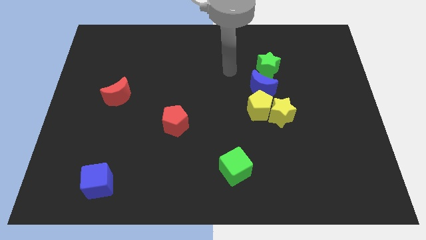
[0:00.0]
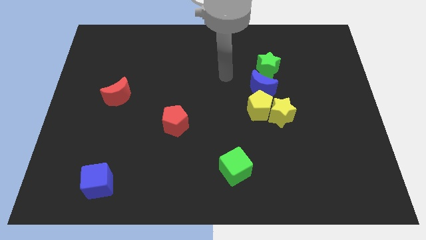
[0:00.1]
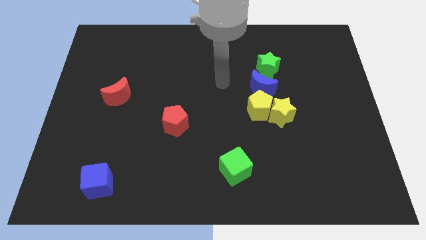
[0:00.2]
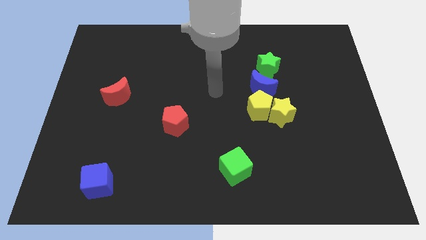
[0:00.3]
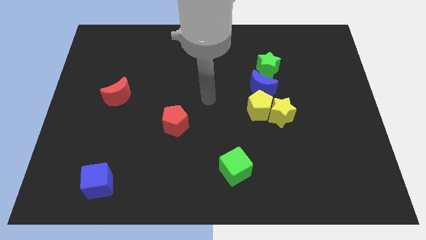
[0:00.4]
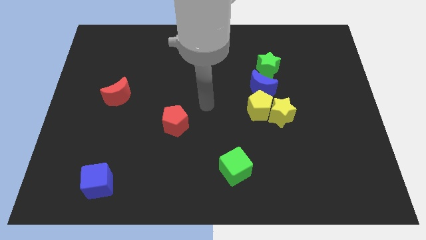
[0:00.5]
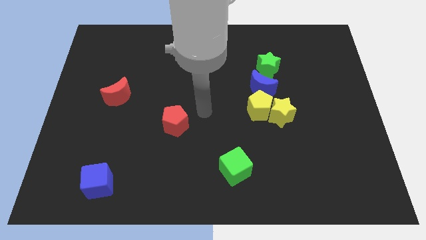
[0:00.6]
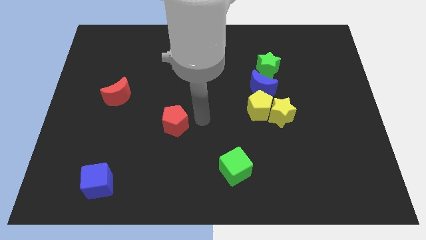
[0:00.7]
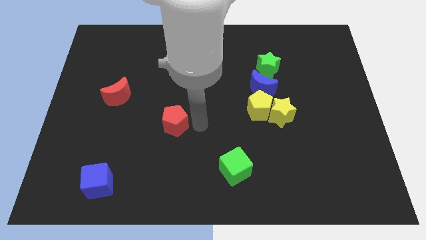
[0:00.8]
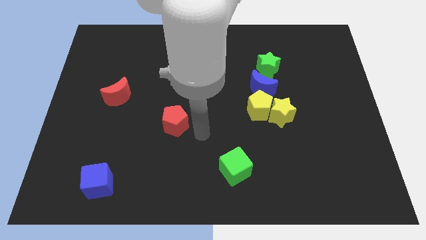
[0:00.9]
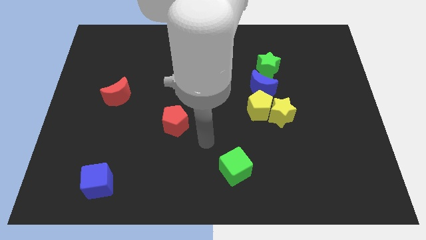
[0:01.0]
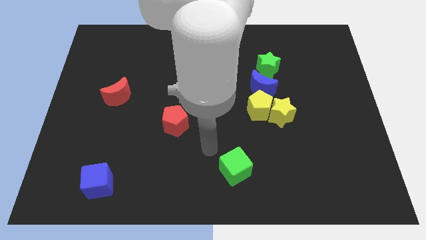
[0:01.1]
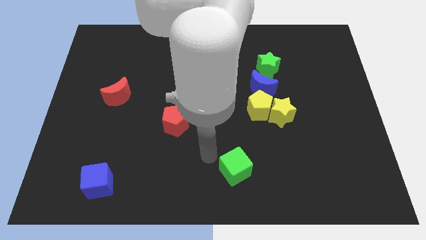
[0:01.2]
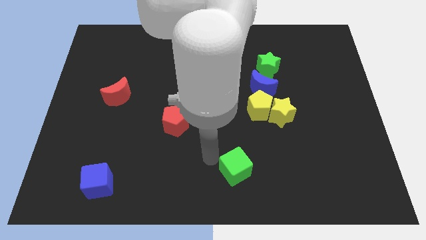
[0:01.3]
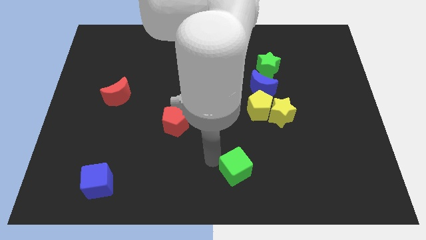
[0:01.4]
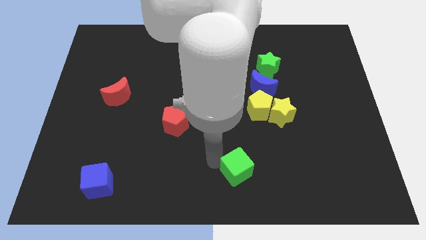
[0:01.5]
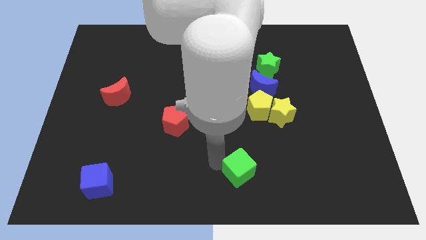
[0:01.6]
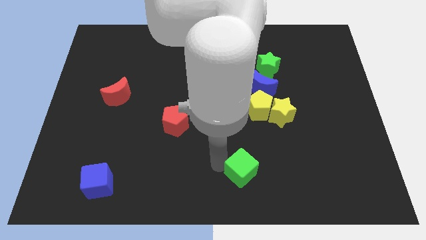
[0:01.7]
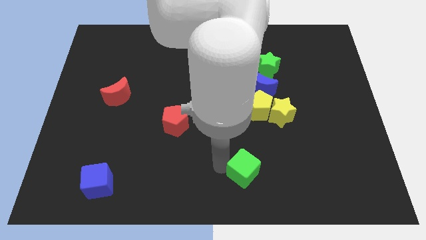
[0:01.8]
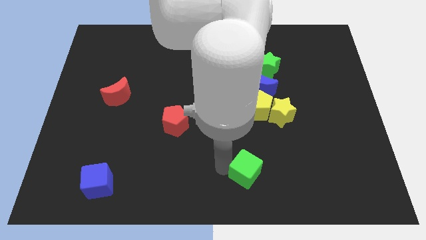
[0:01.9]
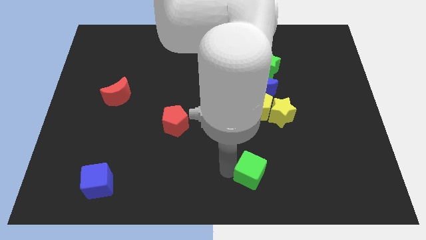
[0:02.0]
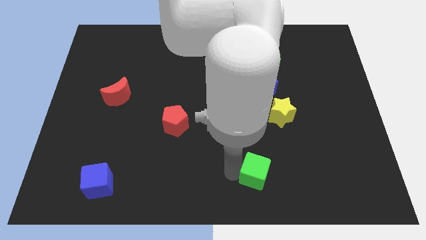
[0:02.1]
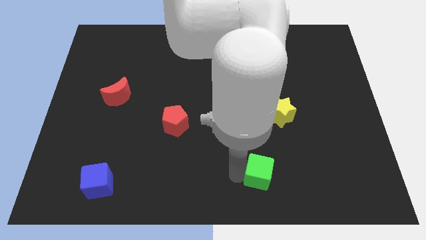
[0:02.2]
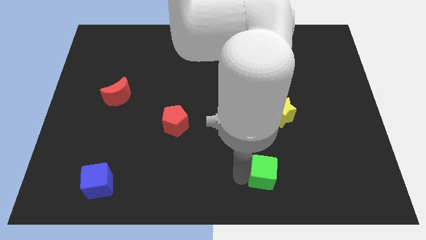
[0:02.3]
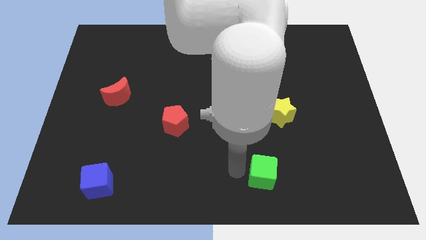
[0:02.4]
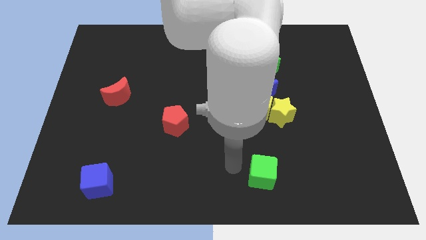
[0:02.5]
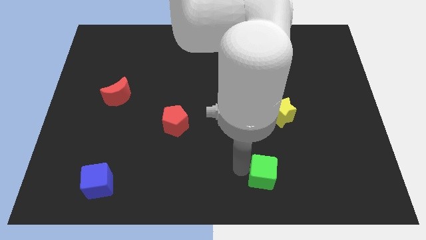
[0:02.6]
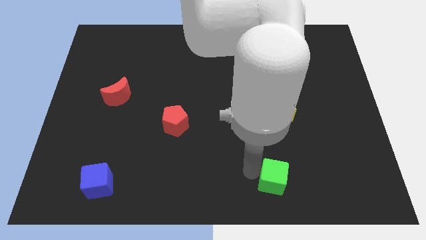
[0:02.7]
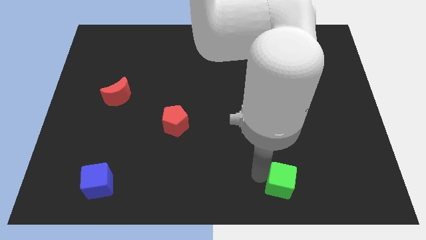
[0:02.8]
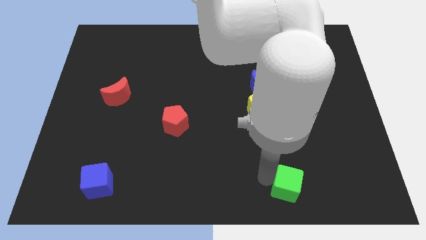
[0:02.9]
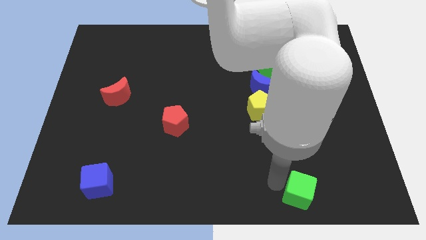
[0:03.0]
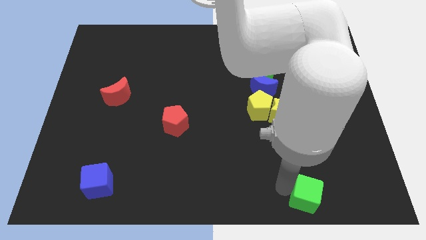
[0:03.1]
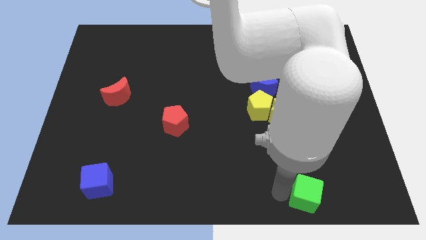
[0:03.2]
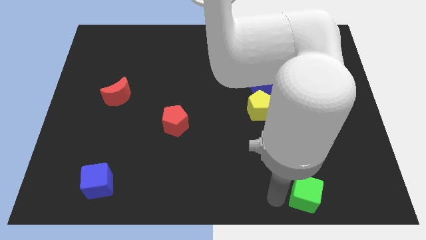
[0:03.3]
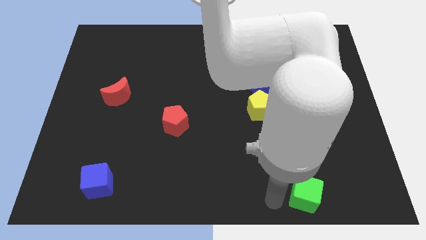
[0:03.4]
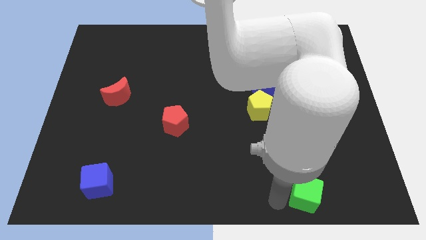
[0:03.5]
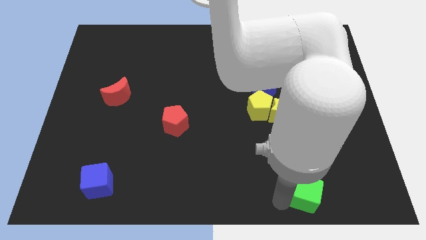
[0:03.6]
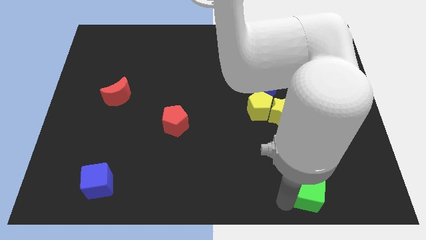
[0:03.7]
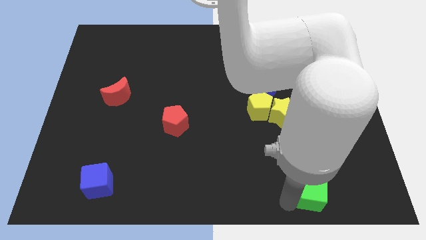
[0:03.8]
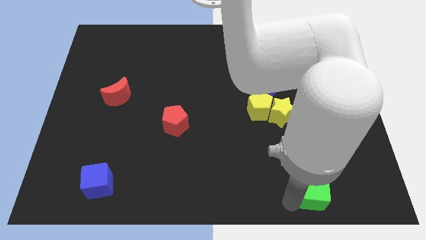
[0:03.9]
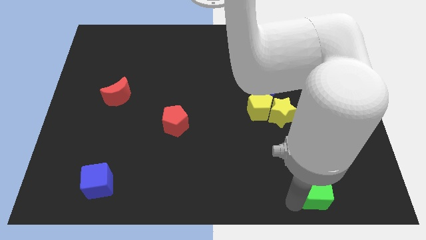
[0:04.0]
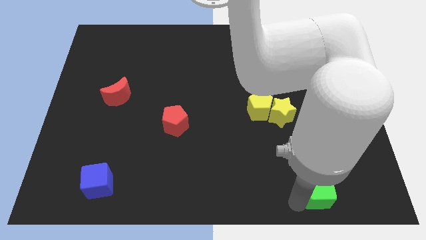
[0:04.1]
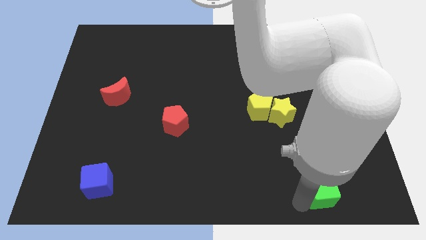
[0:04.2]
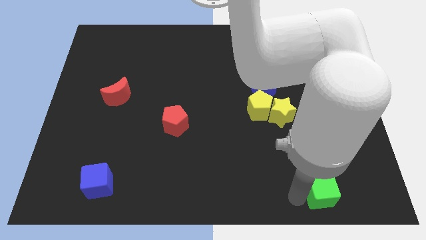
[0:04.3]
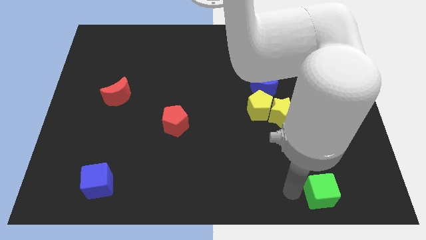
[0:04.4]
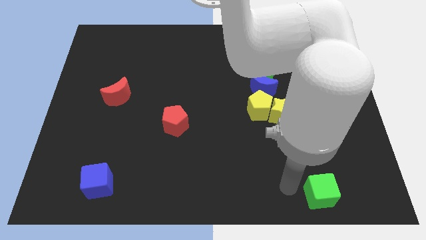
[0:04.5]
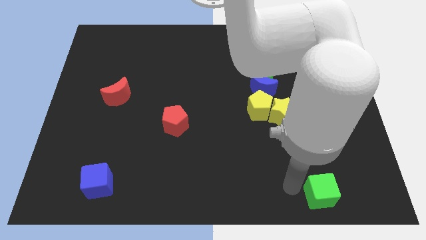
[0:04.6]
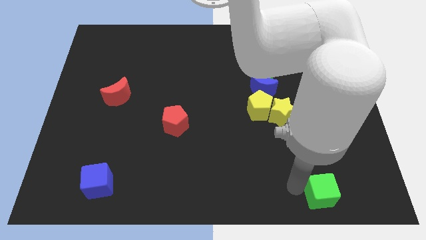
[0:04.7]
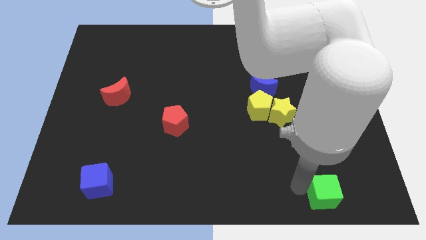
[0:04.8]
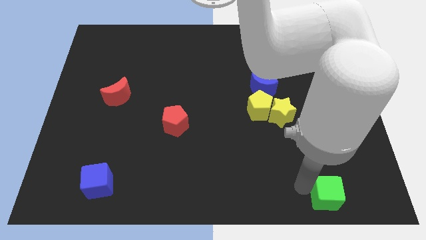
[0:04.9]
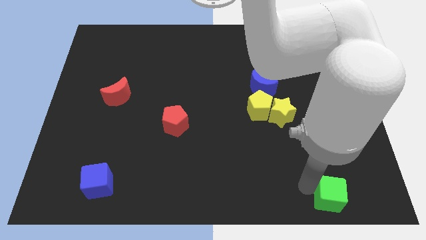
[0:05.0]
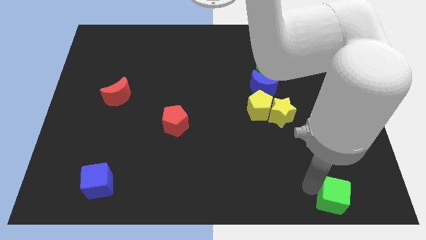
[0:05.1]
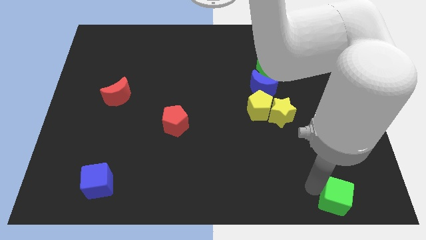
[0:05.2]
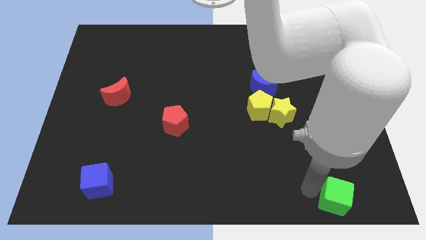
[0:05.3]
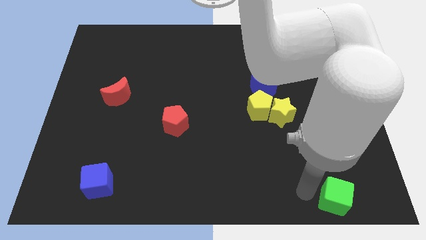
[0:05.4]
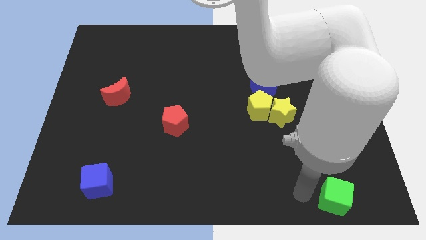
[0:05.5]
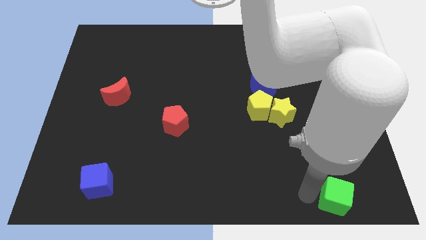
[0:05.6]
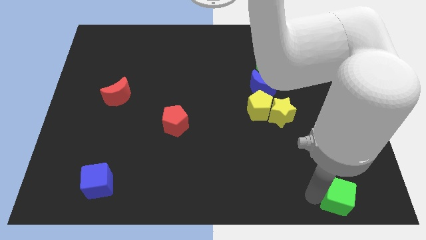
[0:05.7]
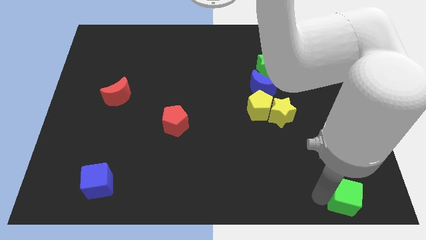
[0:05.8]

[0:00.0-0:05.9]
move the green cube to the bottom right

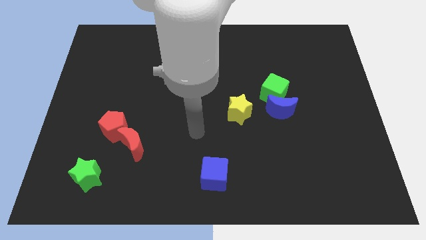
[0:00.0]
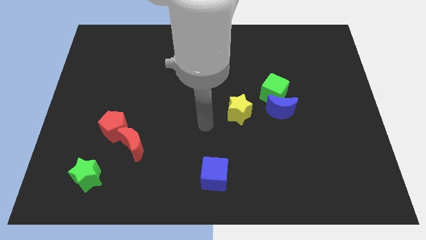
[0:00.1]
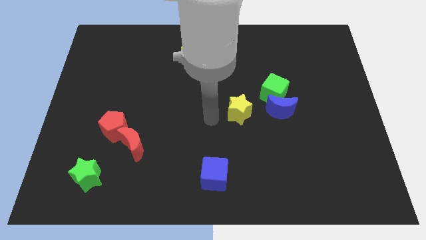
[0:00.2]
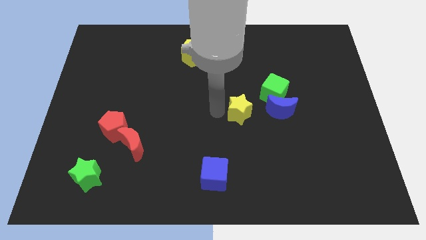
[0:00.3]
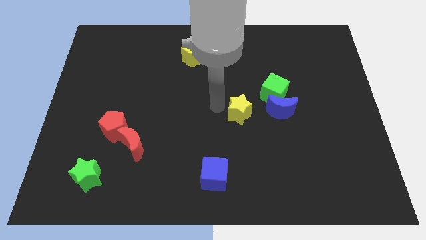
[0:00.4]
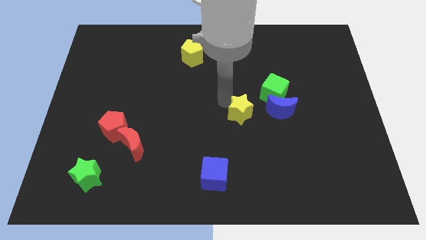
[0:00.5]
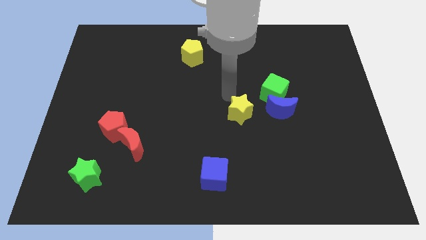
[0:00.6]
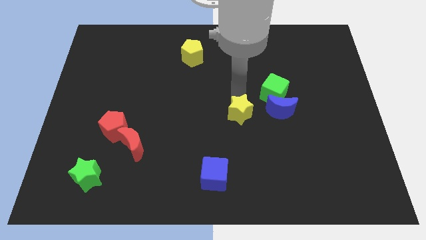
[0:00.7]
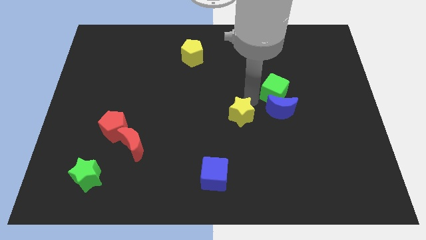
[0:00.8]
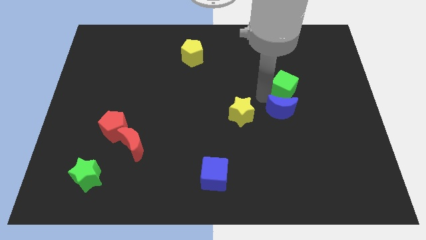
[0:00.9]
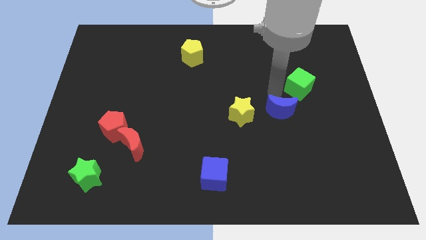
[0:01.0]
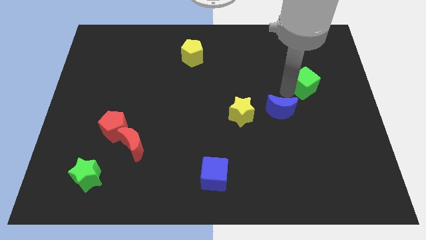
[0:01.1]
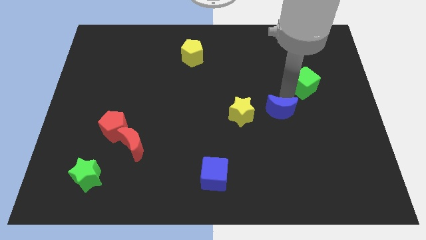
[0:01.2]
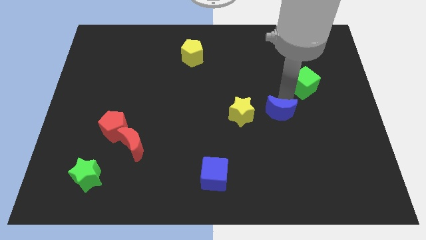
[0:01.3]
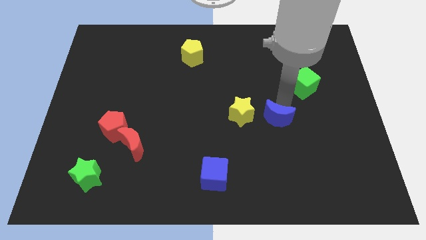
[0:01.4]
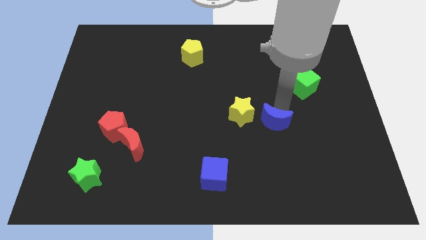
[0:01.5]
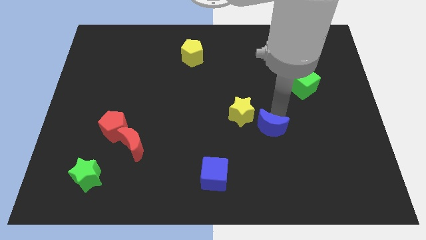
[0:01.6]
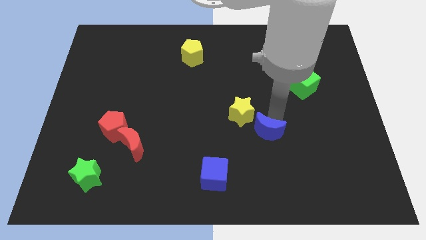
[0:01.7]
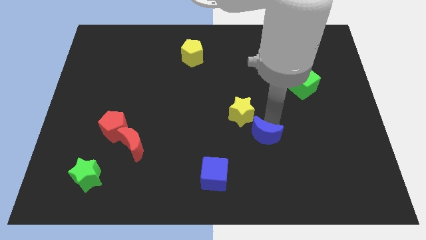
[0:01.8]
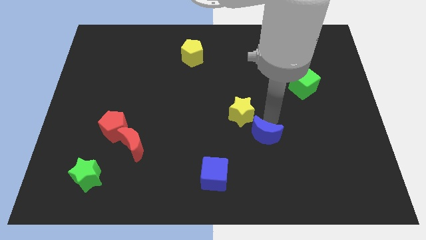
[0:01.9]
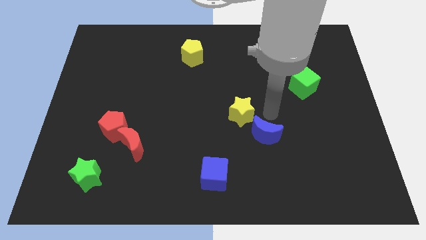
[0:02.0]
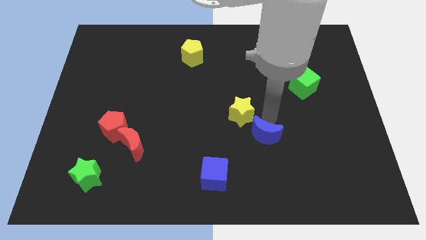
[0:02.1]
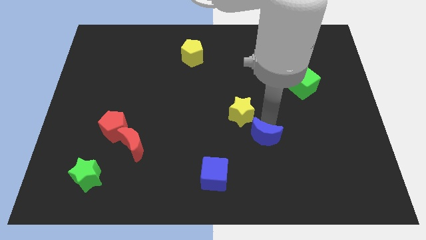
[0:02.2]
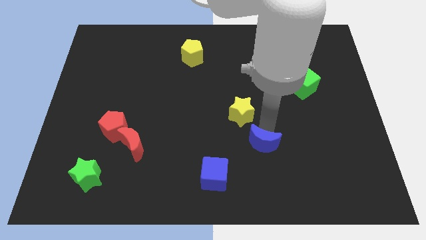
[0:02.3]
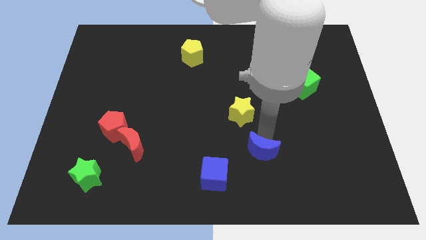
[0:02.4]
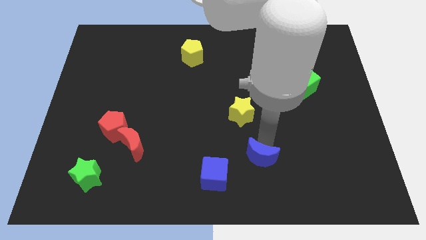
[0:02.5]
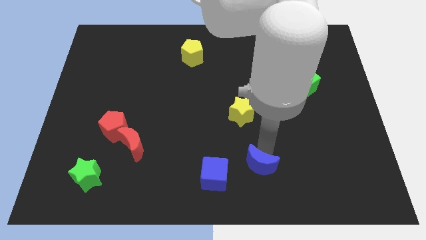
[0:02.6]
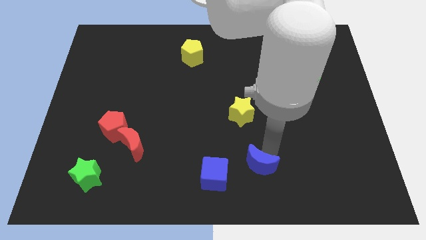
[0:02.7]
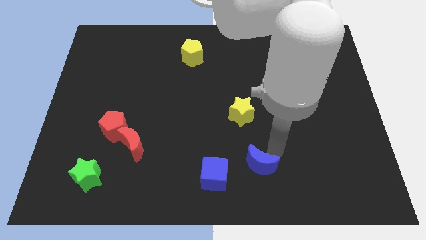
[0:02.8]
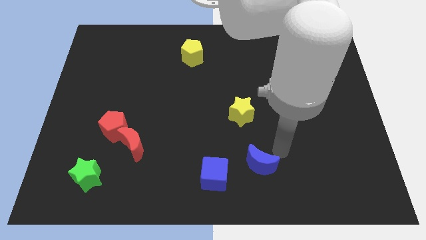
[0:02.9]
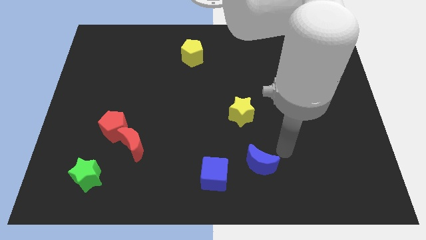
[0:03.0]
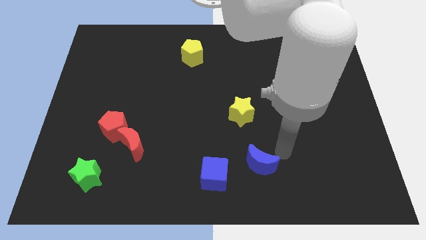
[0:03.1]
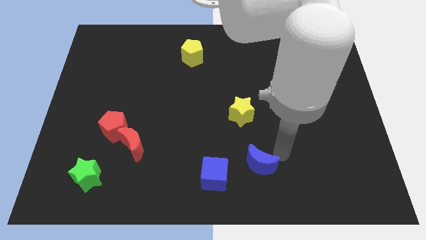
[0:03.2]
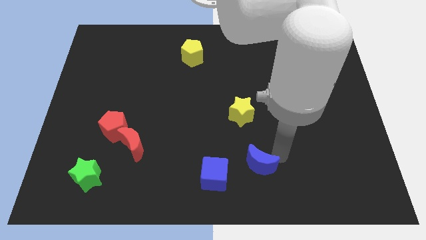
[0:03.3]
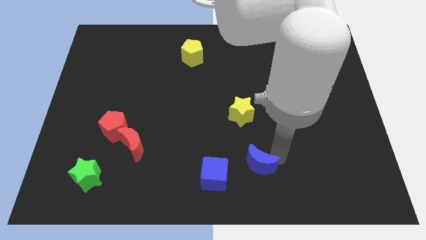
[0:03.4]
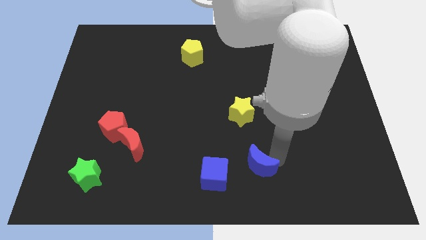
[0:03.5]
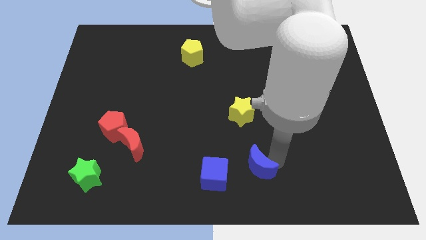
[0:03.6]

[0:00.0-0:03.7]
put the blue moon to the bottom
